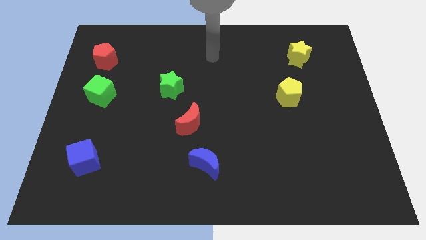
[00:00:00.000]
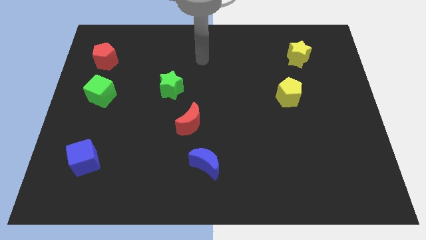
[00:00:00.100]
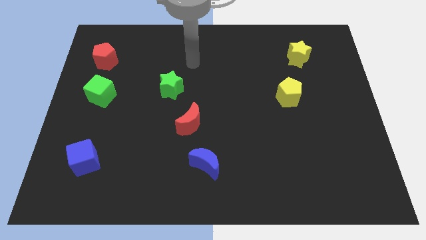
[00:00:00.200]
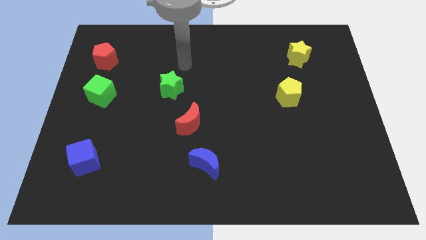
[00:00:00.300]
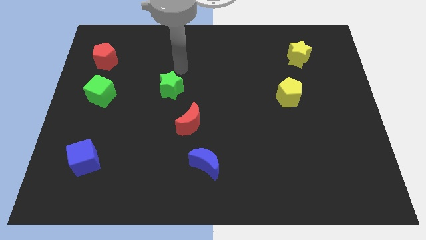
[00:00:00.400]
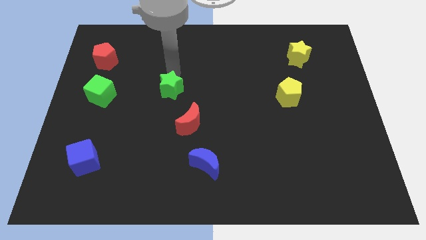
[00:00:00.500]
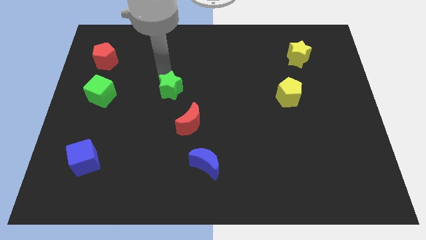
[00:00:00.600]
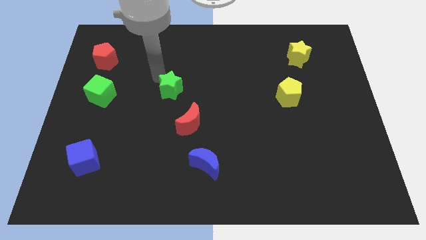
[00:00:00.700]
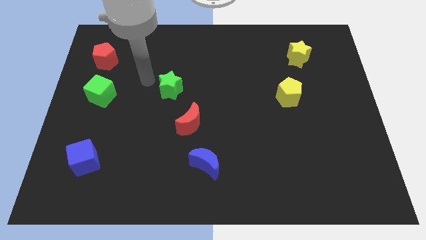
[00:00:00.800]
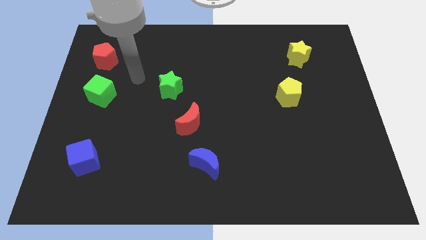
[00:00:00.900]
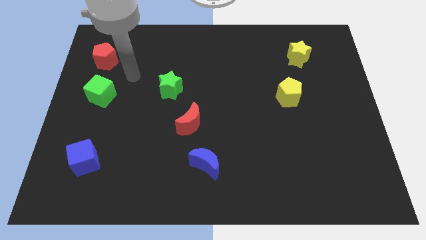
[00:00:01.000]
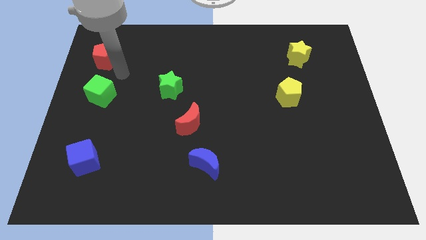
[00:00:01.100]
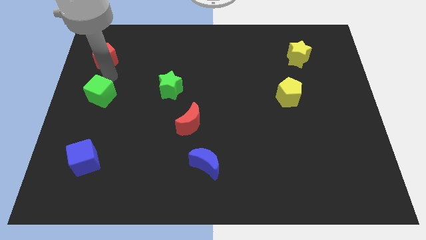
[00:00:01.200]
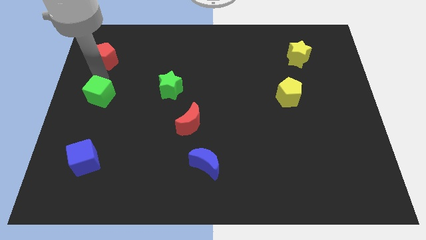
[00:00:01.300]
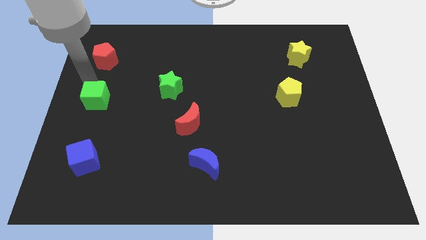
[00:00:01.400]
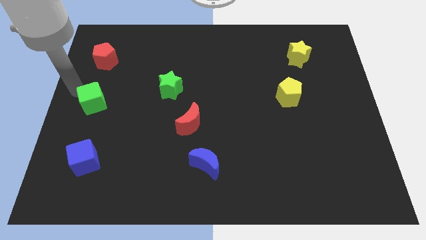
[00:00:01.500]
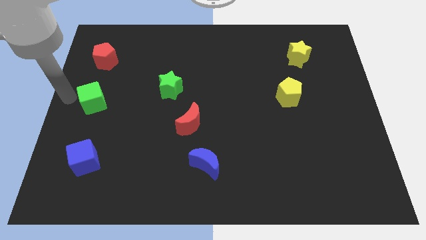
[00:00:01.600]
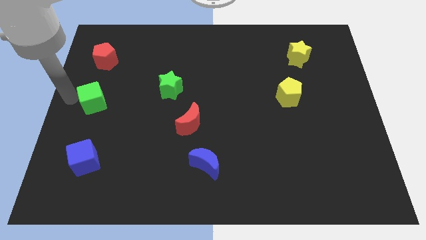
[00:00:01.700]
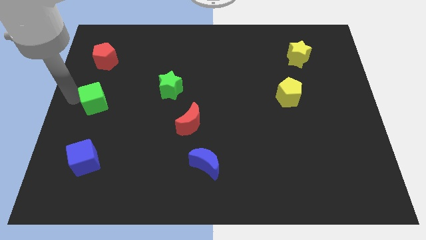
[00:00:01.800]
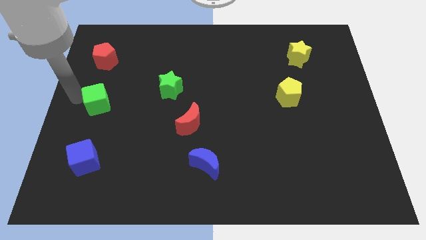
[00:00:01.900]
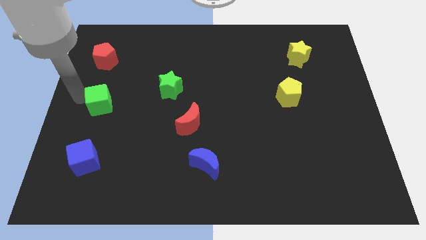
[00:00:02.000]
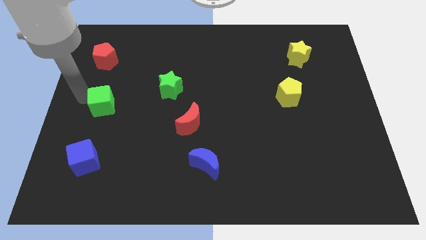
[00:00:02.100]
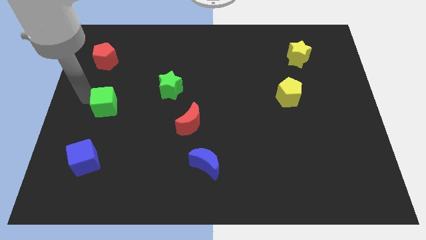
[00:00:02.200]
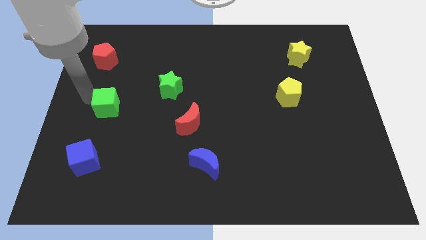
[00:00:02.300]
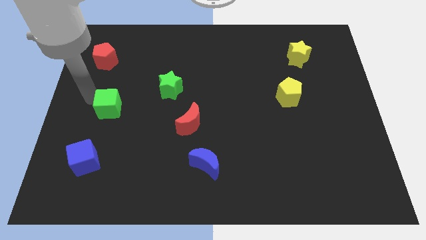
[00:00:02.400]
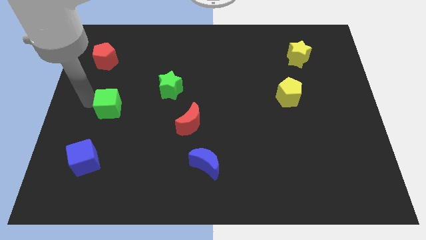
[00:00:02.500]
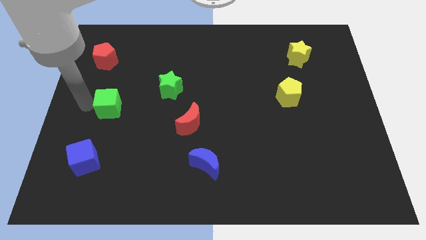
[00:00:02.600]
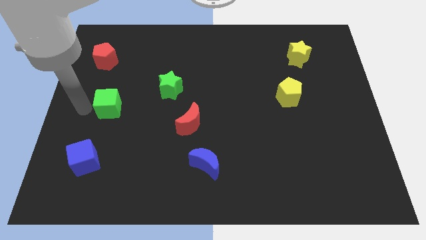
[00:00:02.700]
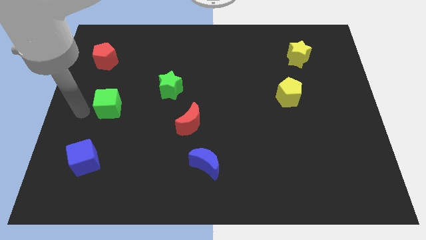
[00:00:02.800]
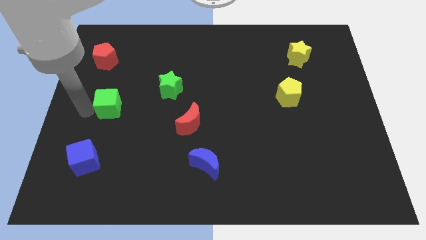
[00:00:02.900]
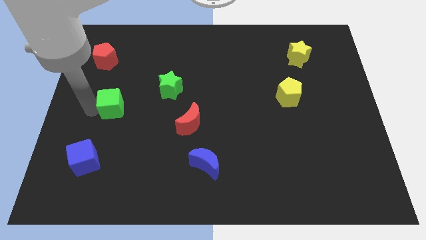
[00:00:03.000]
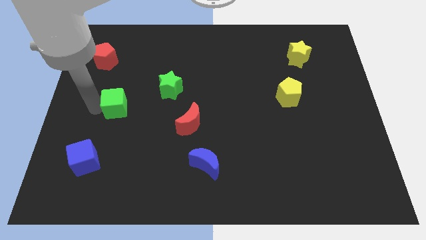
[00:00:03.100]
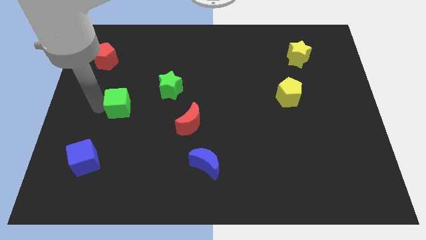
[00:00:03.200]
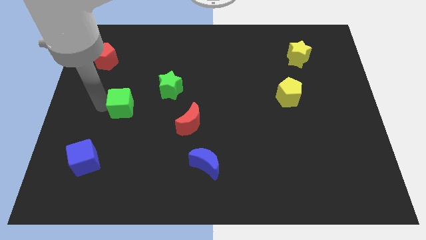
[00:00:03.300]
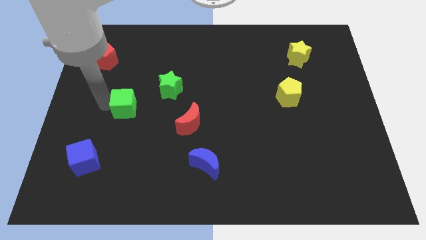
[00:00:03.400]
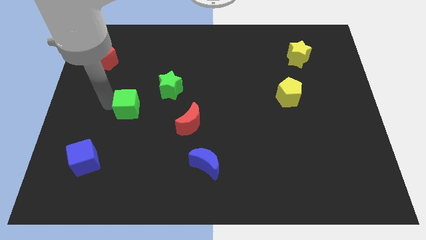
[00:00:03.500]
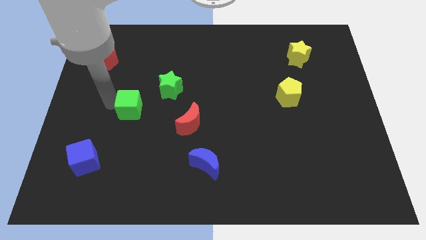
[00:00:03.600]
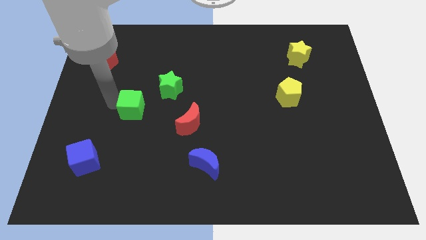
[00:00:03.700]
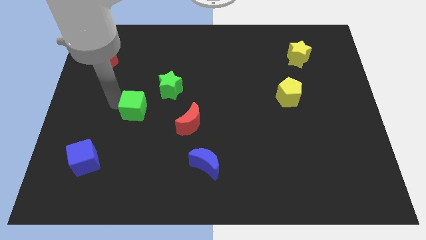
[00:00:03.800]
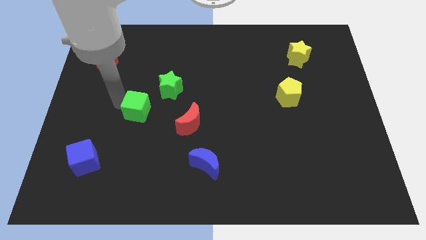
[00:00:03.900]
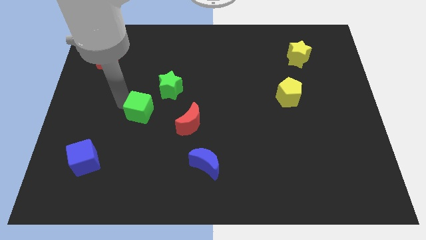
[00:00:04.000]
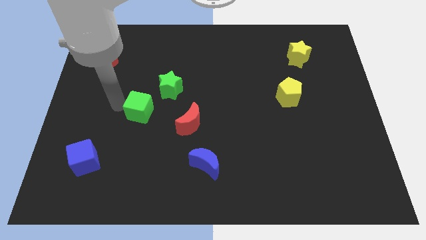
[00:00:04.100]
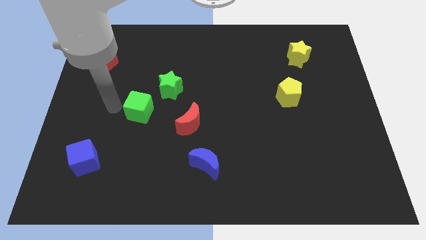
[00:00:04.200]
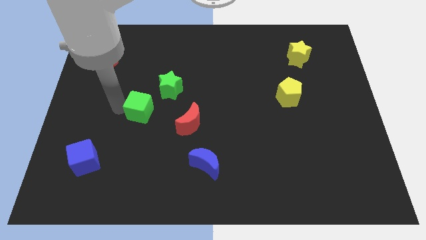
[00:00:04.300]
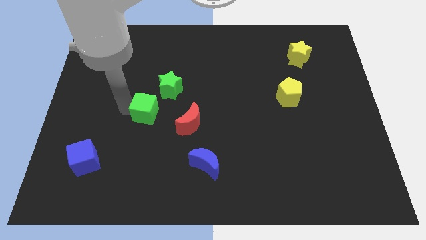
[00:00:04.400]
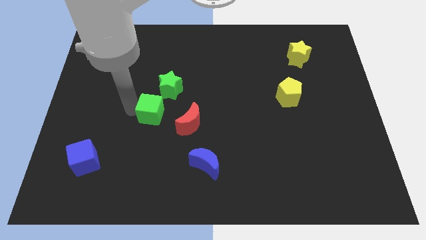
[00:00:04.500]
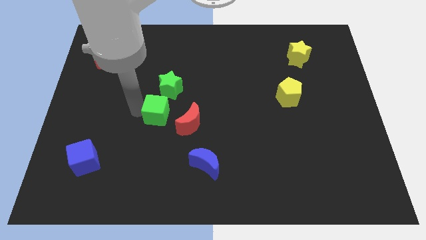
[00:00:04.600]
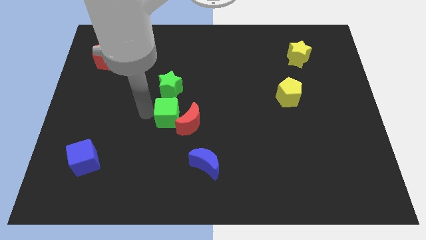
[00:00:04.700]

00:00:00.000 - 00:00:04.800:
push the green cube to the center

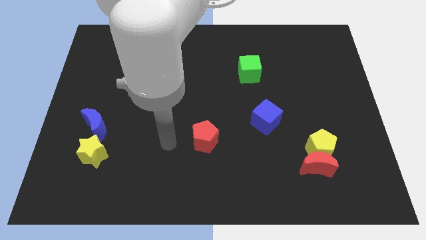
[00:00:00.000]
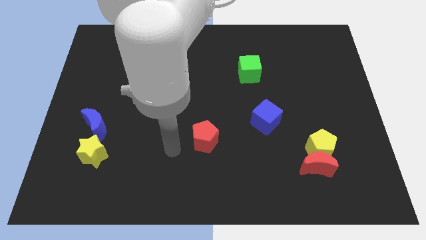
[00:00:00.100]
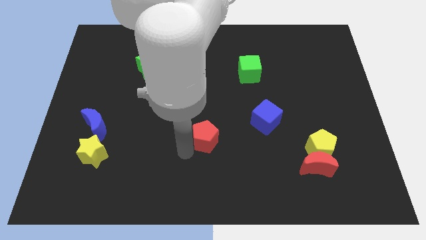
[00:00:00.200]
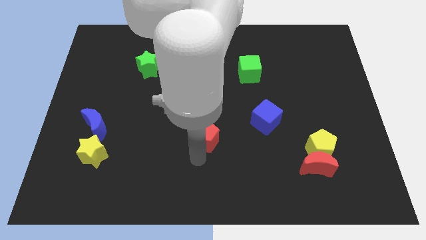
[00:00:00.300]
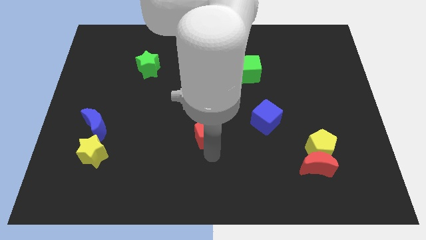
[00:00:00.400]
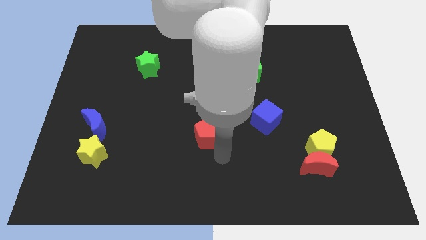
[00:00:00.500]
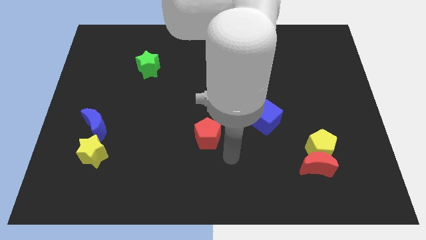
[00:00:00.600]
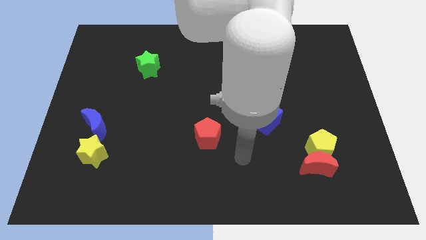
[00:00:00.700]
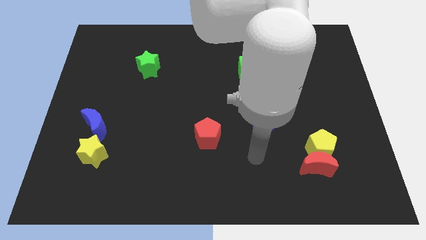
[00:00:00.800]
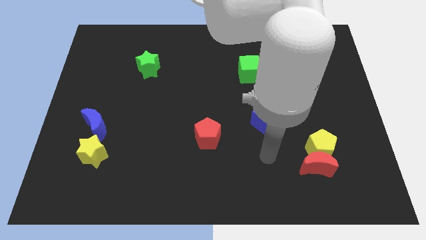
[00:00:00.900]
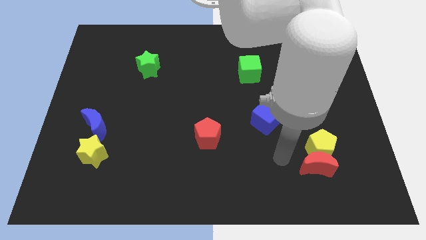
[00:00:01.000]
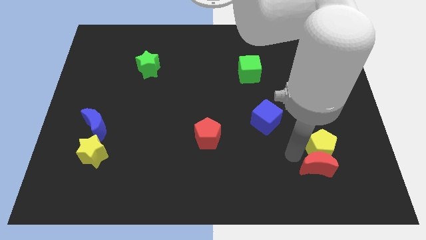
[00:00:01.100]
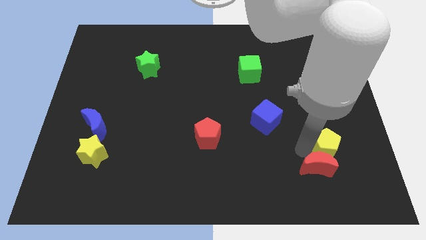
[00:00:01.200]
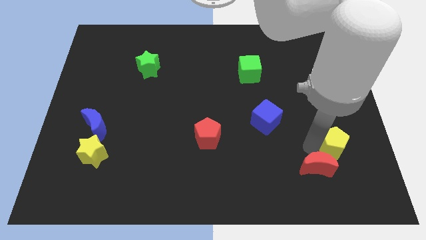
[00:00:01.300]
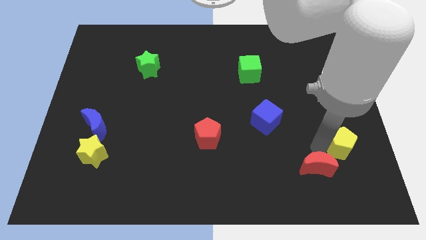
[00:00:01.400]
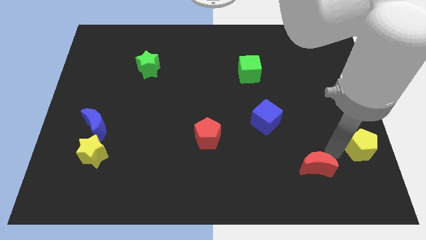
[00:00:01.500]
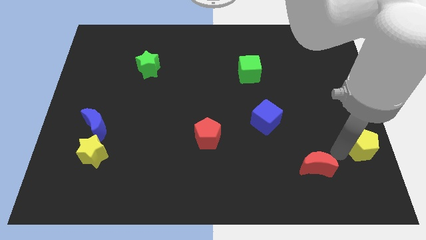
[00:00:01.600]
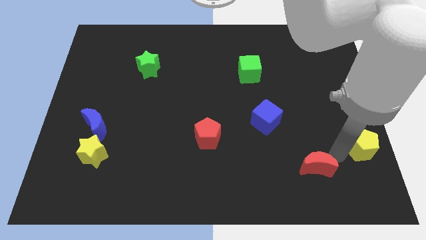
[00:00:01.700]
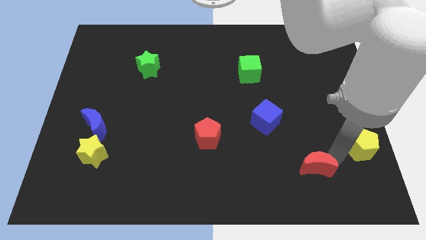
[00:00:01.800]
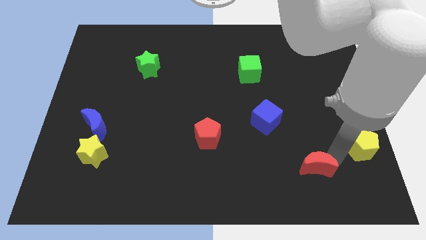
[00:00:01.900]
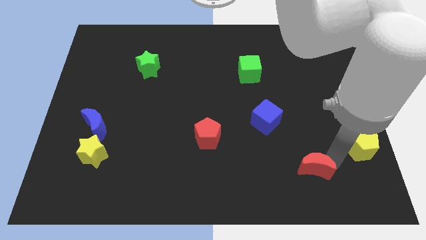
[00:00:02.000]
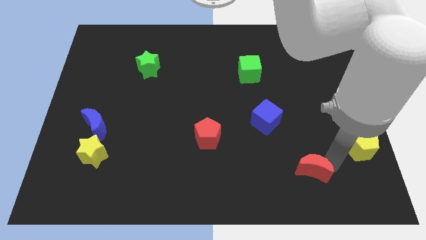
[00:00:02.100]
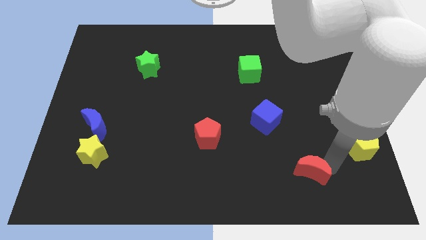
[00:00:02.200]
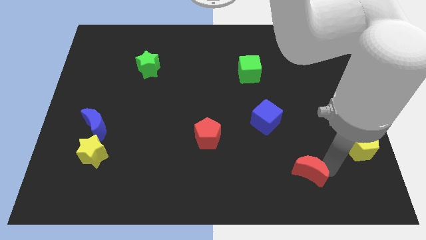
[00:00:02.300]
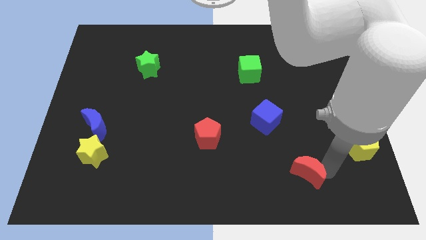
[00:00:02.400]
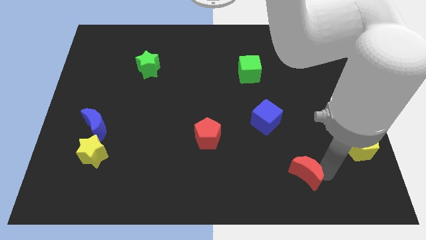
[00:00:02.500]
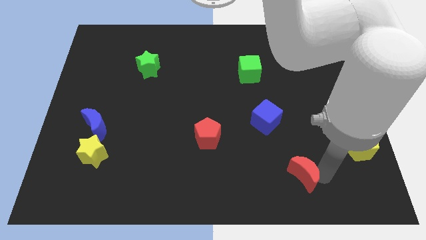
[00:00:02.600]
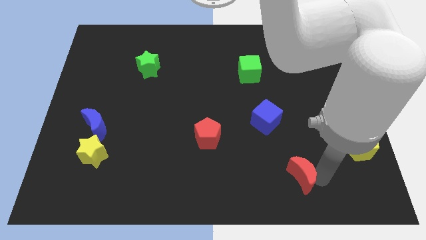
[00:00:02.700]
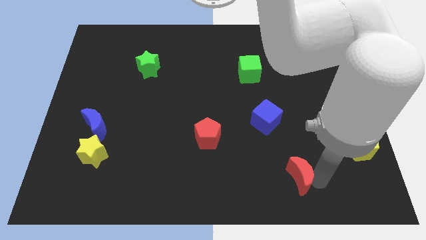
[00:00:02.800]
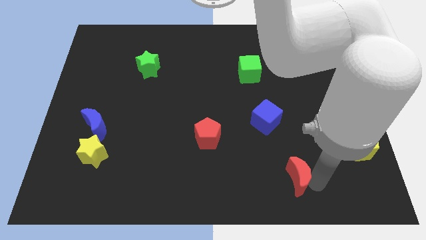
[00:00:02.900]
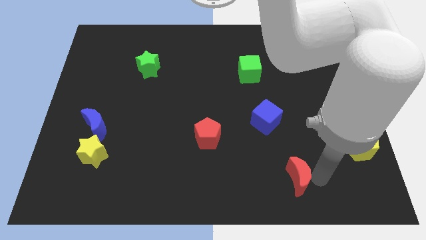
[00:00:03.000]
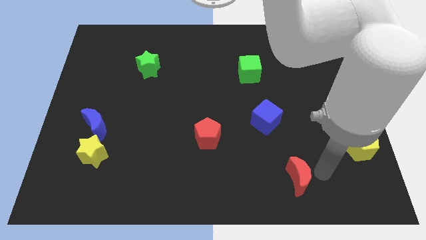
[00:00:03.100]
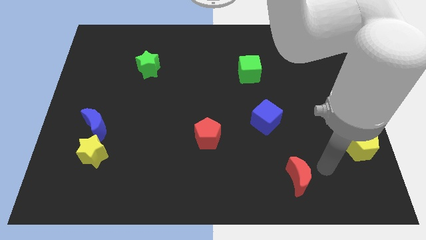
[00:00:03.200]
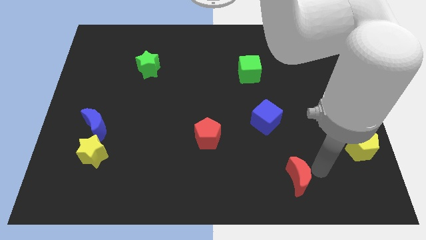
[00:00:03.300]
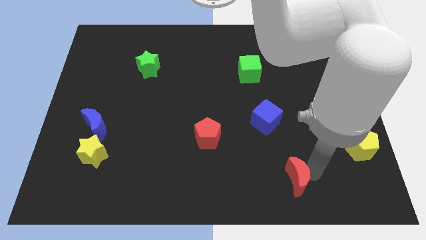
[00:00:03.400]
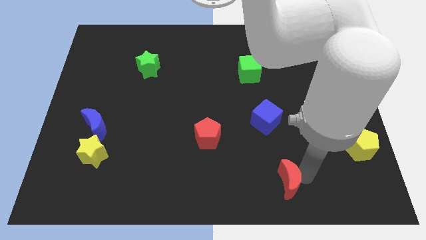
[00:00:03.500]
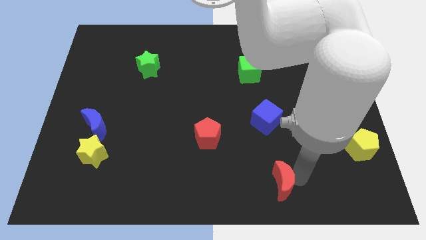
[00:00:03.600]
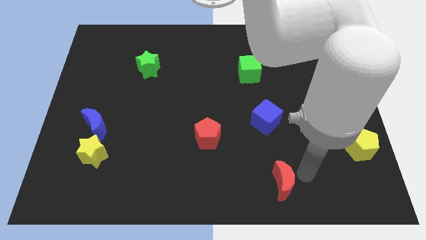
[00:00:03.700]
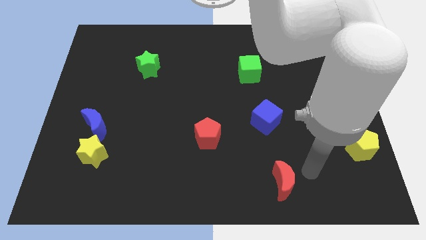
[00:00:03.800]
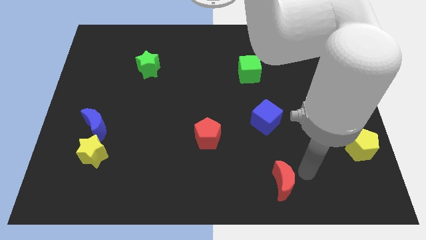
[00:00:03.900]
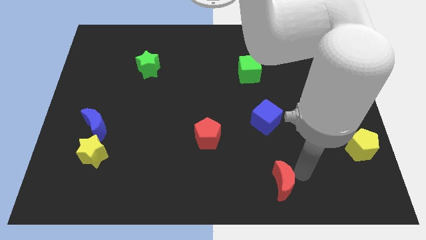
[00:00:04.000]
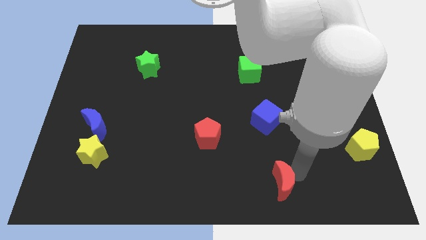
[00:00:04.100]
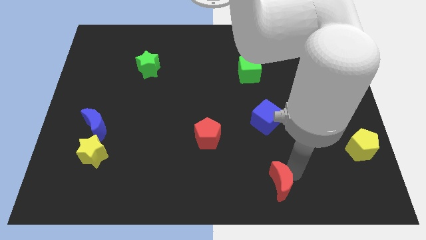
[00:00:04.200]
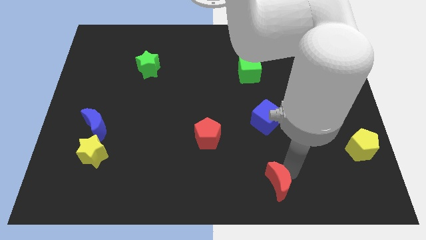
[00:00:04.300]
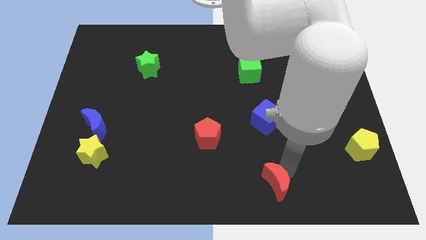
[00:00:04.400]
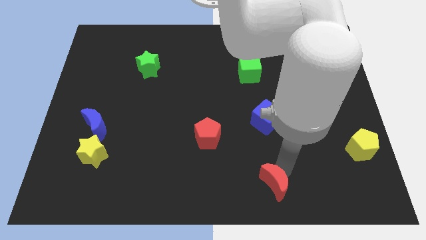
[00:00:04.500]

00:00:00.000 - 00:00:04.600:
slide the red moon to the bottom side
